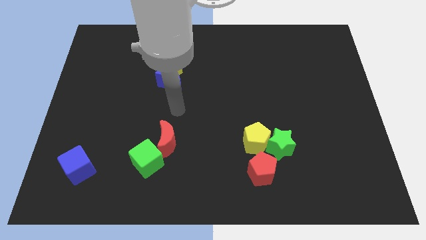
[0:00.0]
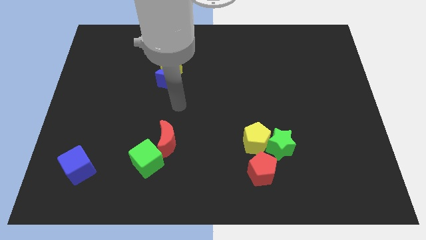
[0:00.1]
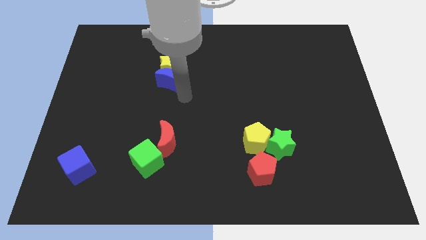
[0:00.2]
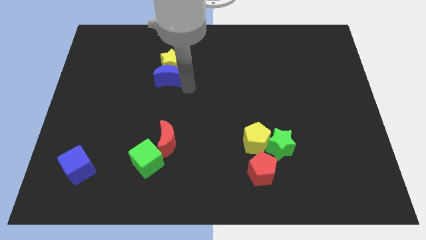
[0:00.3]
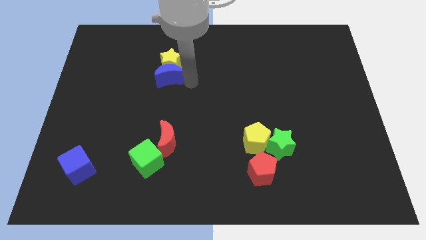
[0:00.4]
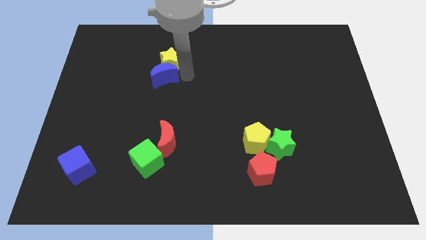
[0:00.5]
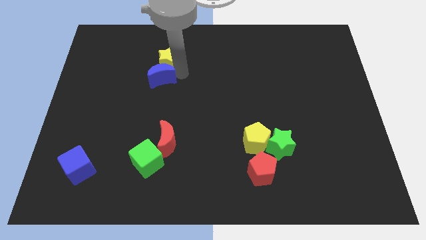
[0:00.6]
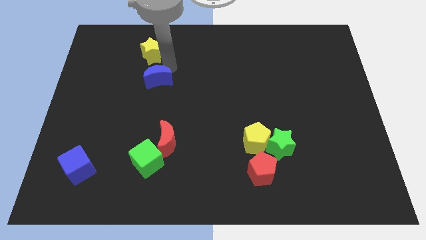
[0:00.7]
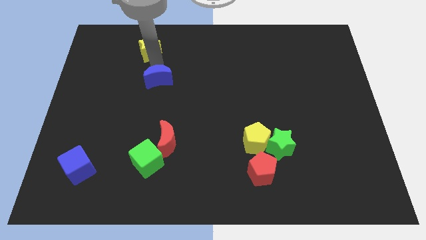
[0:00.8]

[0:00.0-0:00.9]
separate the blue moon from the yellow star

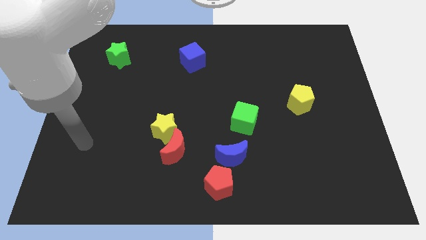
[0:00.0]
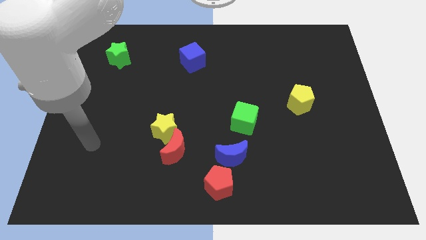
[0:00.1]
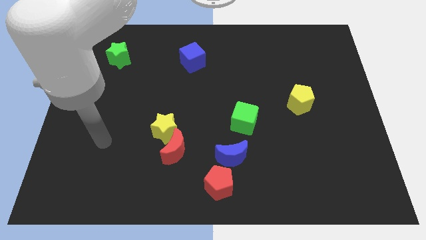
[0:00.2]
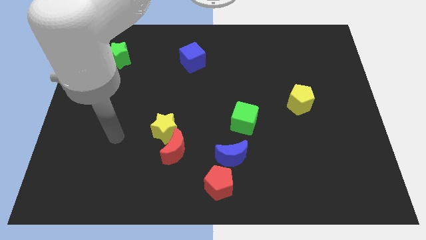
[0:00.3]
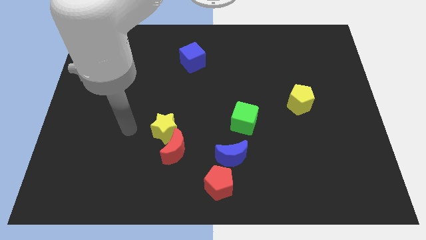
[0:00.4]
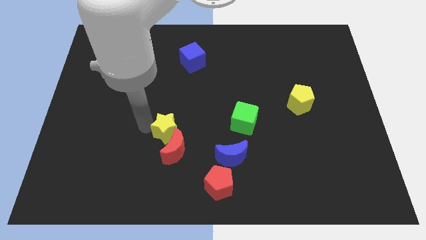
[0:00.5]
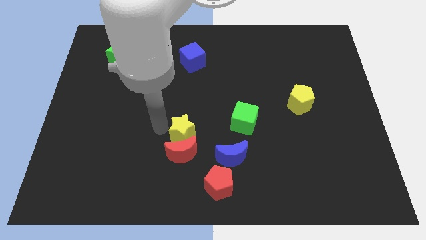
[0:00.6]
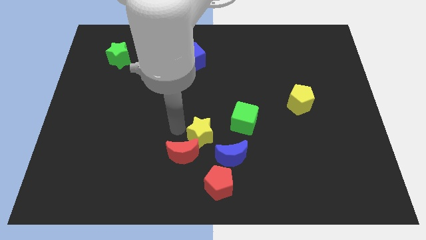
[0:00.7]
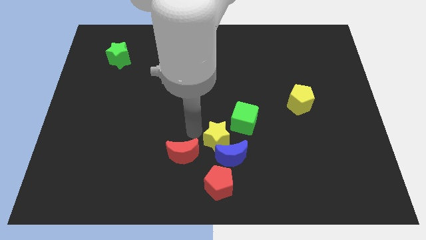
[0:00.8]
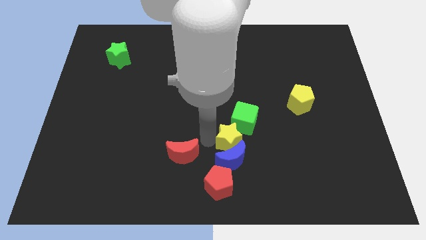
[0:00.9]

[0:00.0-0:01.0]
pull the red moon apart from the yellow star

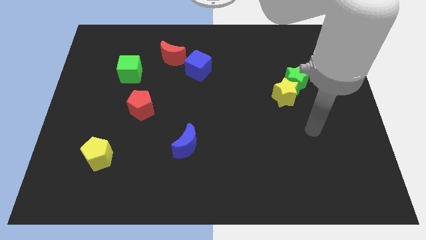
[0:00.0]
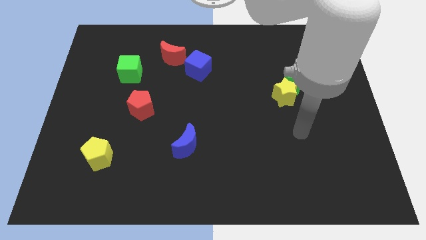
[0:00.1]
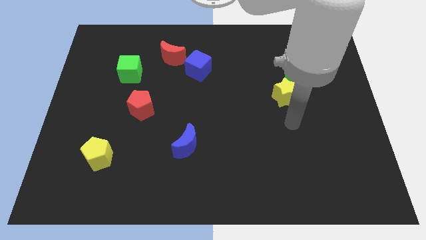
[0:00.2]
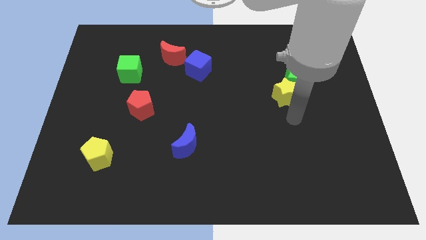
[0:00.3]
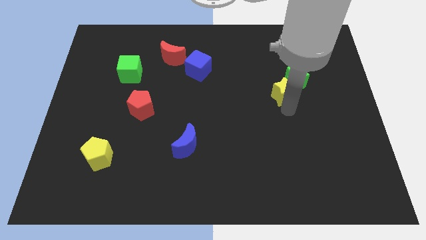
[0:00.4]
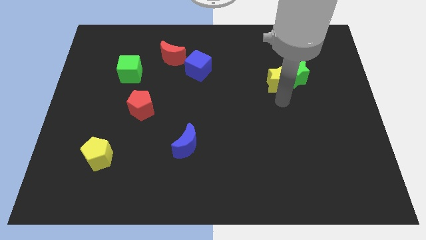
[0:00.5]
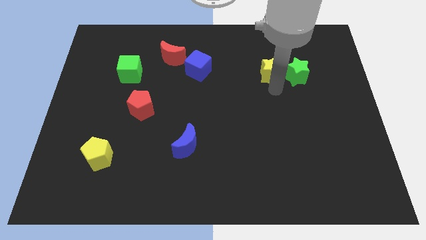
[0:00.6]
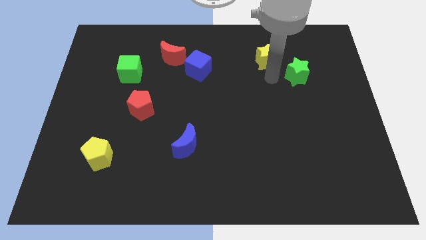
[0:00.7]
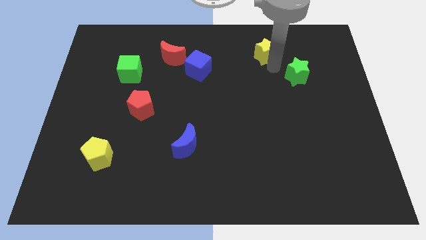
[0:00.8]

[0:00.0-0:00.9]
move the green star away from the yellow star

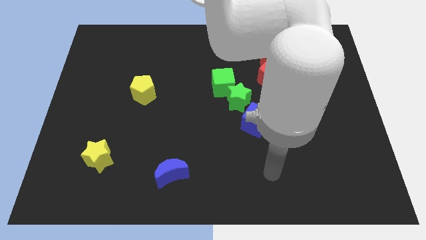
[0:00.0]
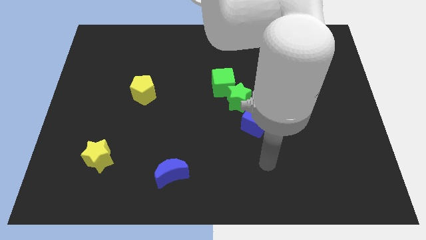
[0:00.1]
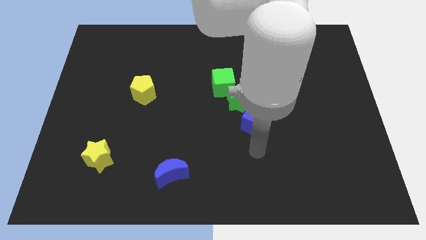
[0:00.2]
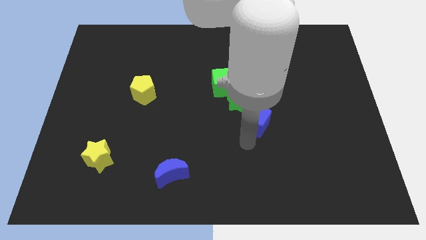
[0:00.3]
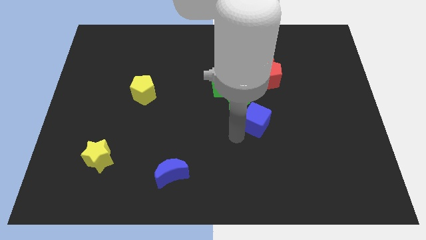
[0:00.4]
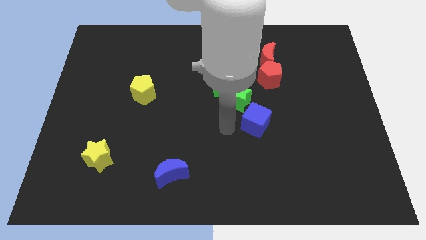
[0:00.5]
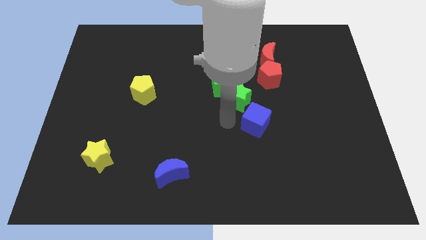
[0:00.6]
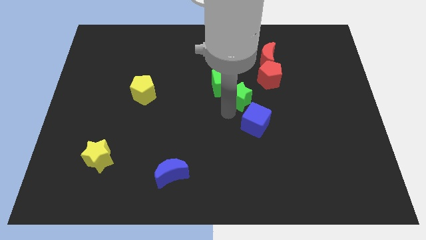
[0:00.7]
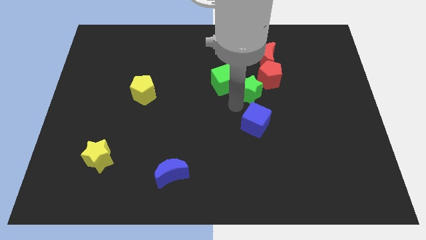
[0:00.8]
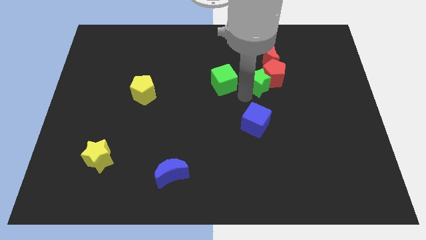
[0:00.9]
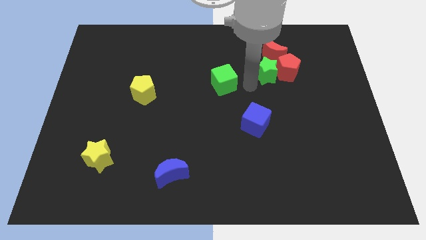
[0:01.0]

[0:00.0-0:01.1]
pull the green cube apart from the green star

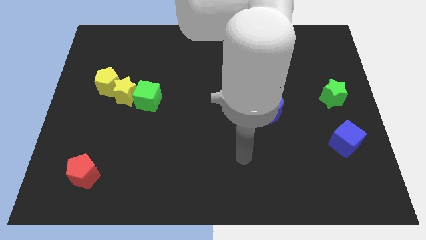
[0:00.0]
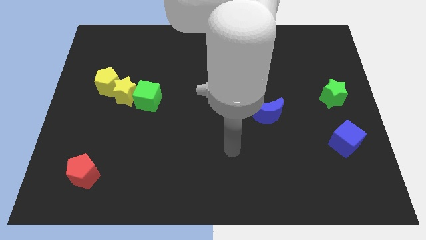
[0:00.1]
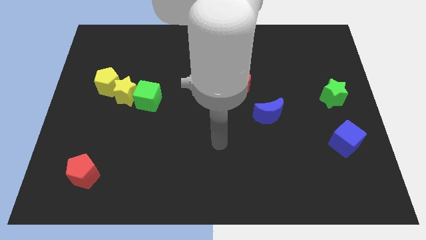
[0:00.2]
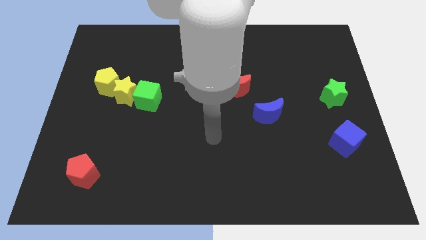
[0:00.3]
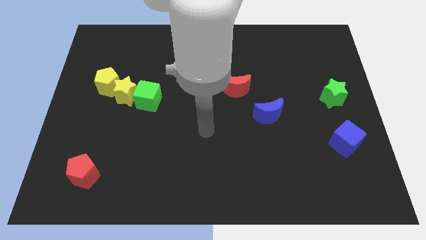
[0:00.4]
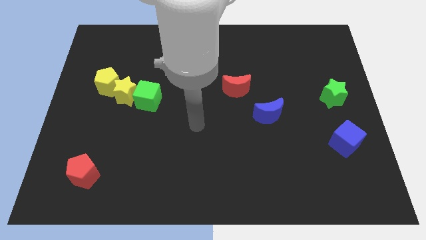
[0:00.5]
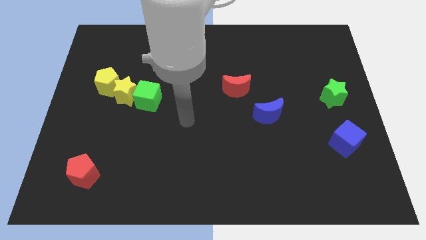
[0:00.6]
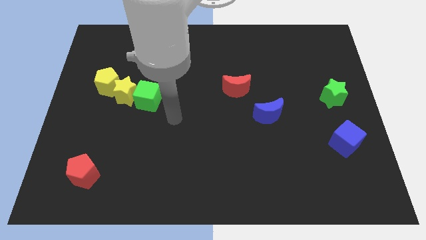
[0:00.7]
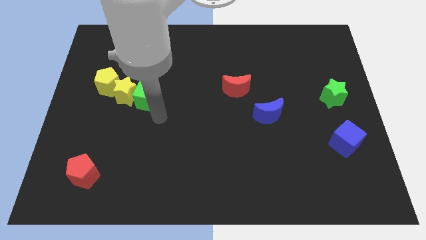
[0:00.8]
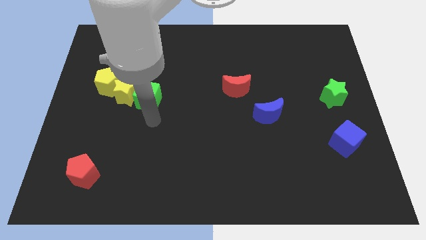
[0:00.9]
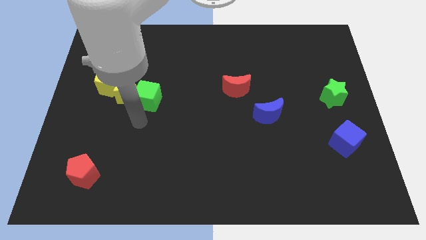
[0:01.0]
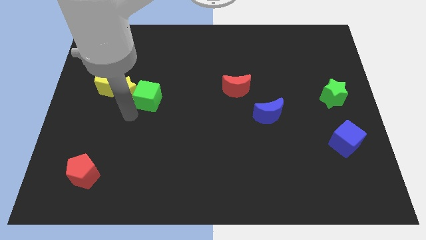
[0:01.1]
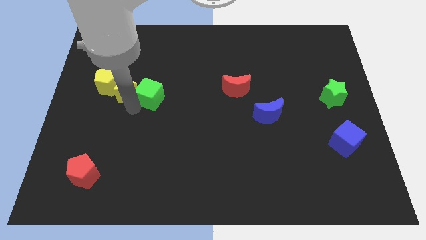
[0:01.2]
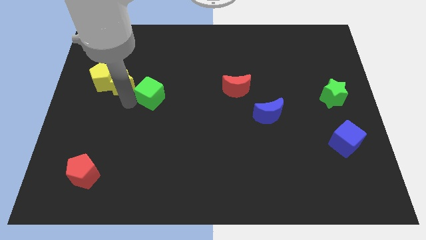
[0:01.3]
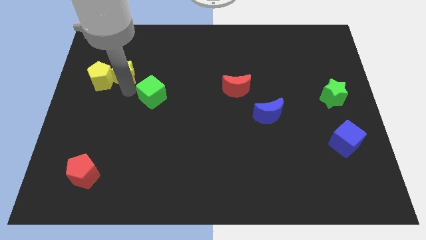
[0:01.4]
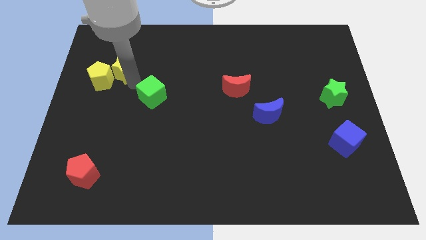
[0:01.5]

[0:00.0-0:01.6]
pull the green cube apart from the yellow star

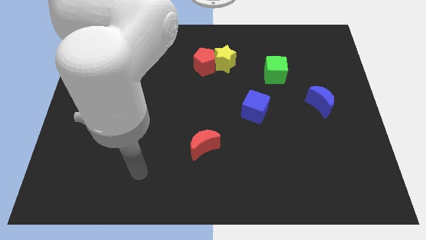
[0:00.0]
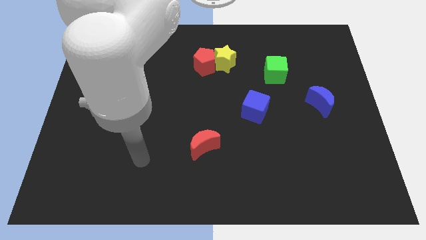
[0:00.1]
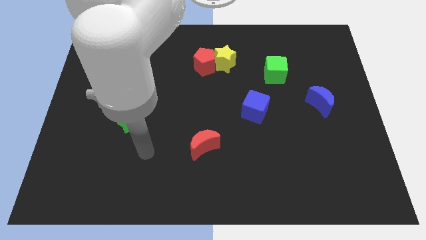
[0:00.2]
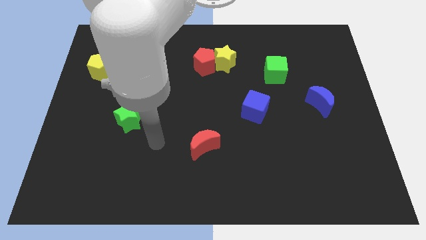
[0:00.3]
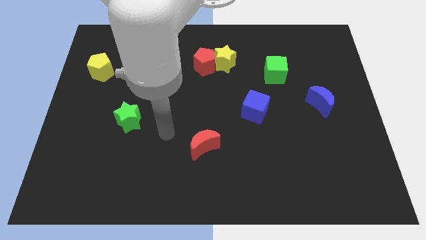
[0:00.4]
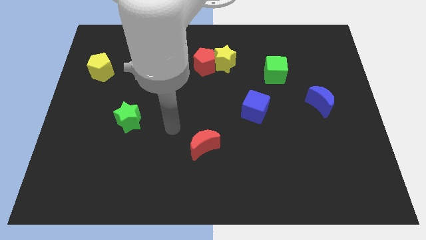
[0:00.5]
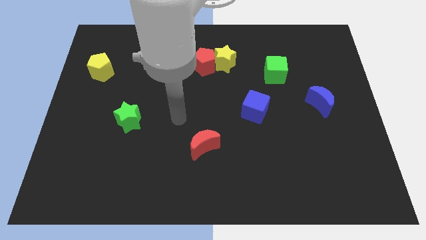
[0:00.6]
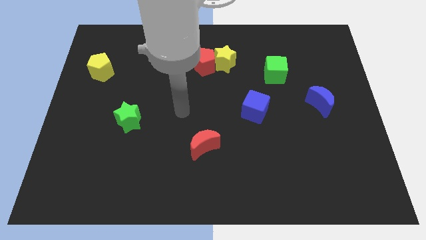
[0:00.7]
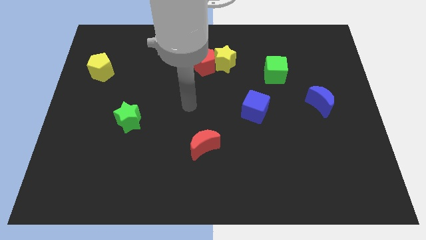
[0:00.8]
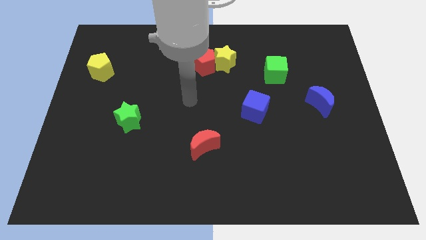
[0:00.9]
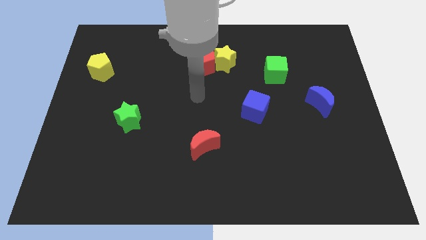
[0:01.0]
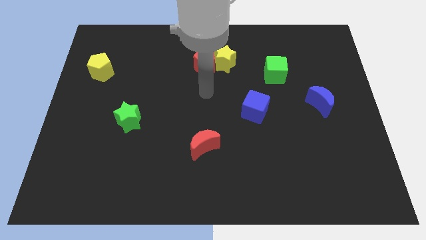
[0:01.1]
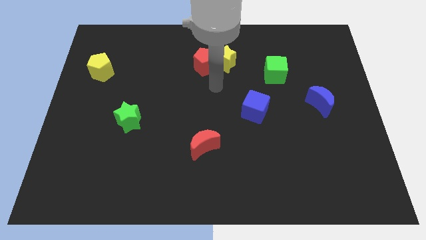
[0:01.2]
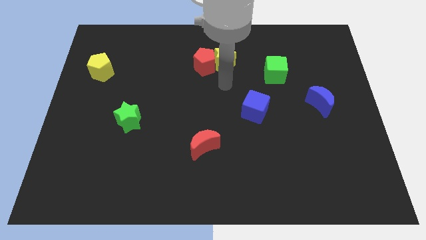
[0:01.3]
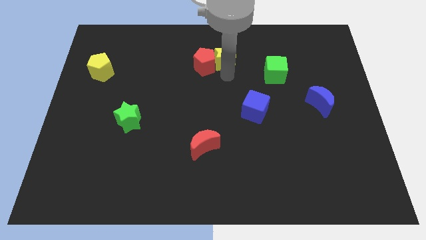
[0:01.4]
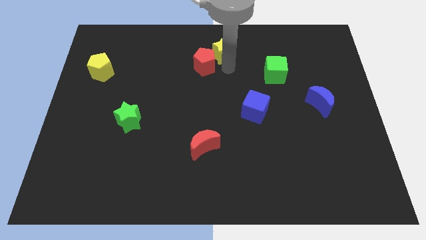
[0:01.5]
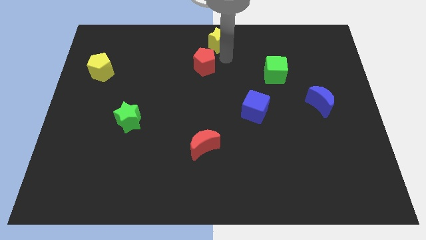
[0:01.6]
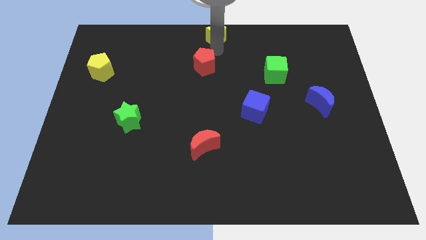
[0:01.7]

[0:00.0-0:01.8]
separate the red pentagon from the yellow star

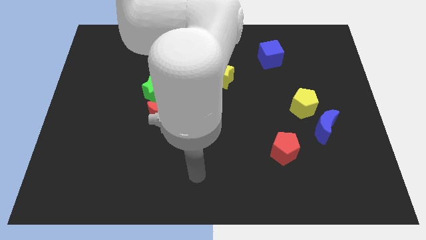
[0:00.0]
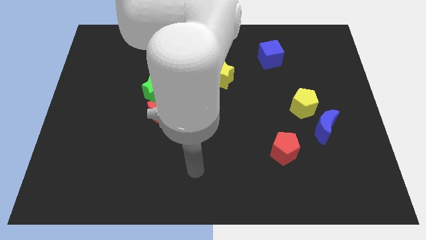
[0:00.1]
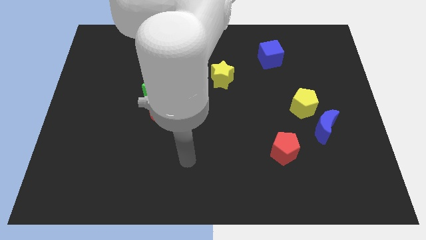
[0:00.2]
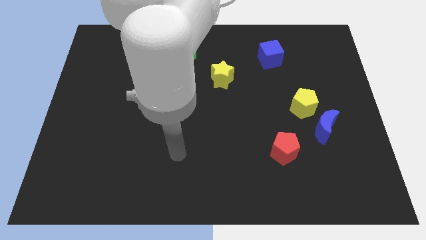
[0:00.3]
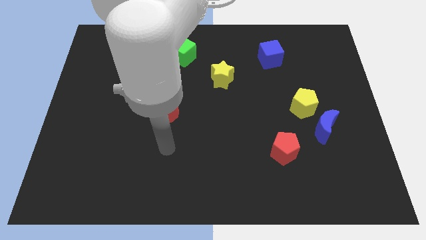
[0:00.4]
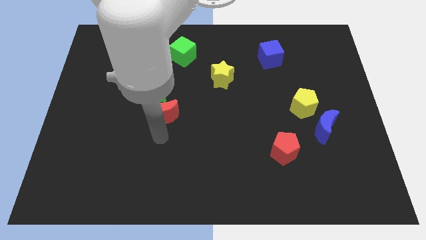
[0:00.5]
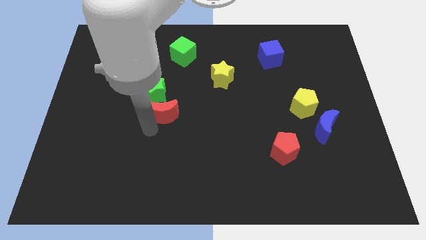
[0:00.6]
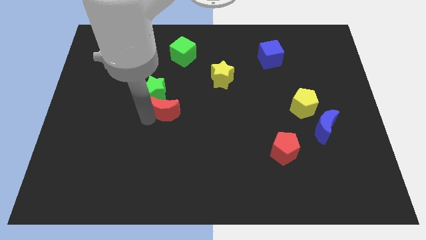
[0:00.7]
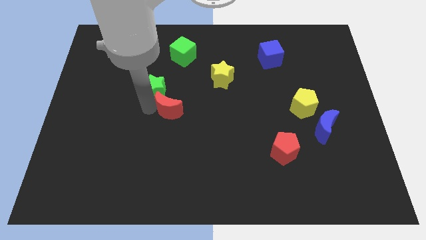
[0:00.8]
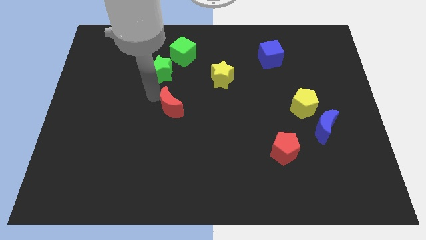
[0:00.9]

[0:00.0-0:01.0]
move the red moon away from the green star

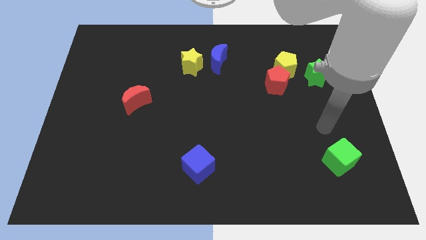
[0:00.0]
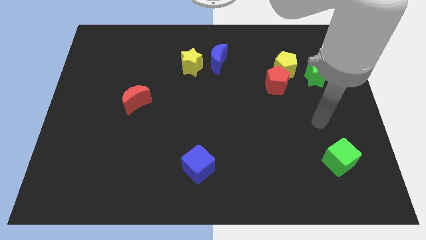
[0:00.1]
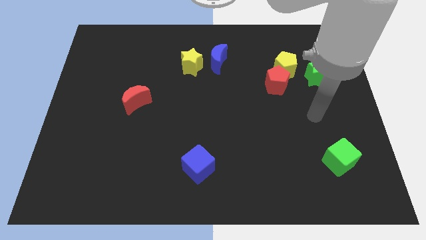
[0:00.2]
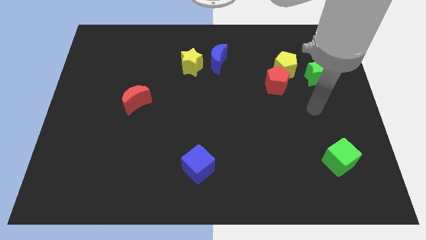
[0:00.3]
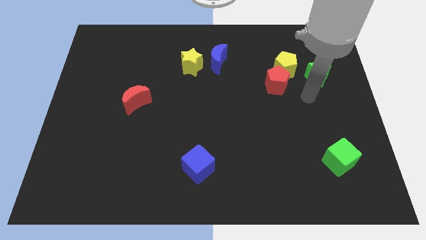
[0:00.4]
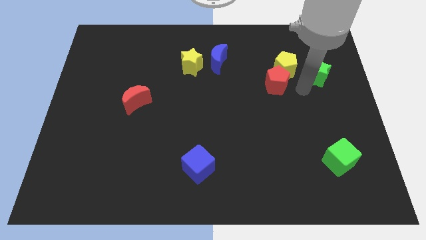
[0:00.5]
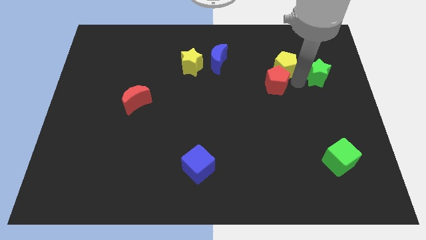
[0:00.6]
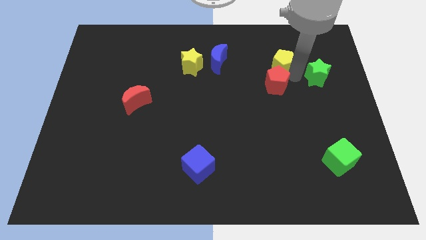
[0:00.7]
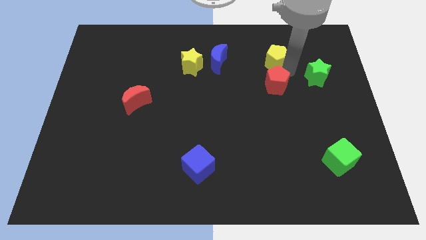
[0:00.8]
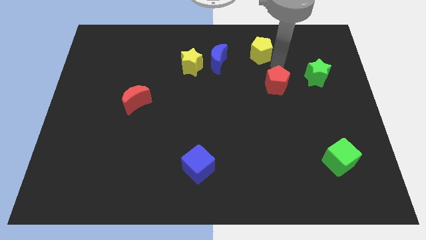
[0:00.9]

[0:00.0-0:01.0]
separate the red pentagon from the yellow pentagon

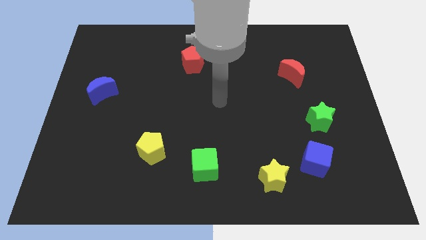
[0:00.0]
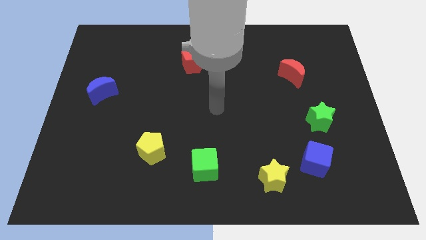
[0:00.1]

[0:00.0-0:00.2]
move the blue cube away from the yellow star
